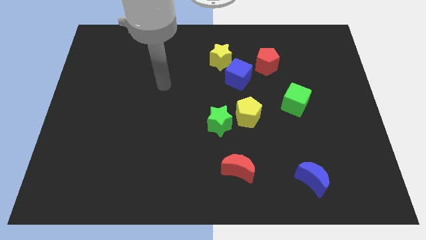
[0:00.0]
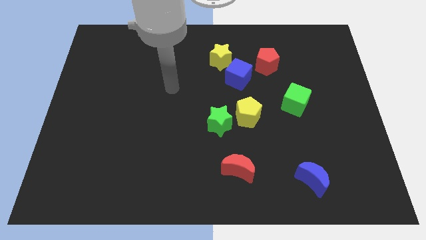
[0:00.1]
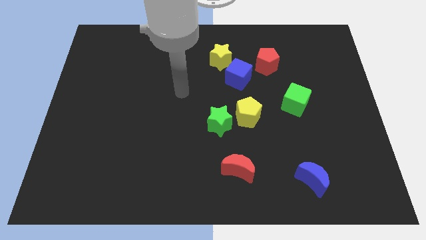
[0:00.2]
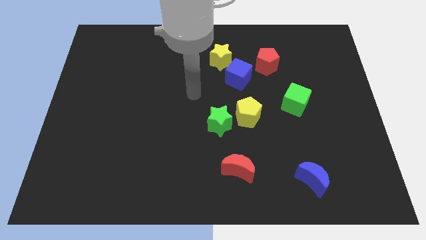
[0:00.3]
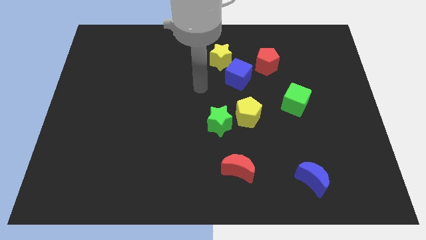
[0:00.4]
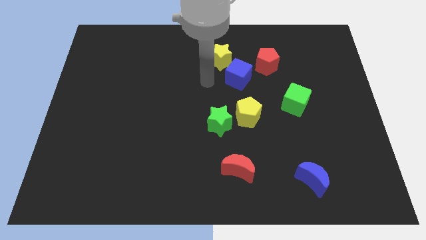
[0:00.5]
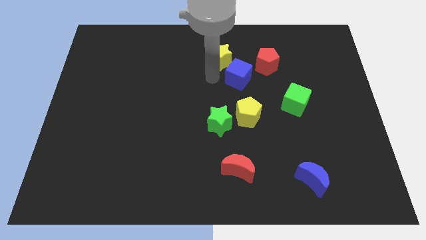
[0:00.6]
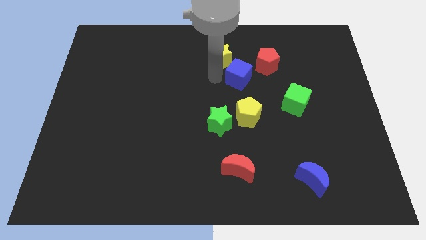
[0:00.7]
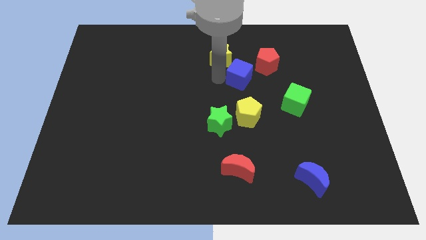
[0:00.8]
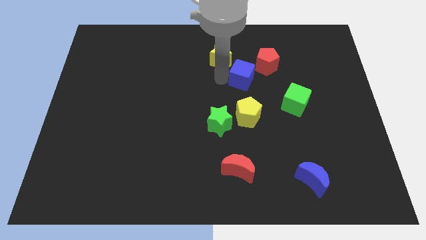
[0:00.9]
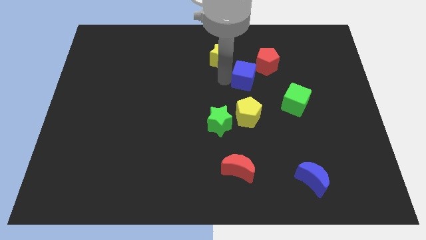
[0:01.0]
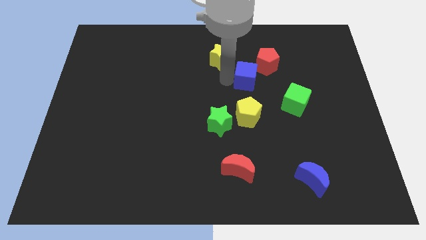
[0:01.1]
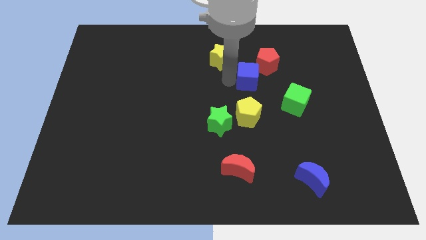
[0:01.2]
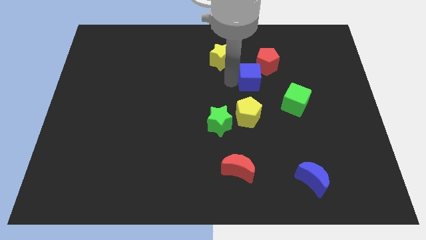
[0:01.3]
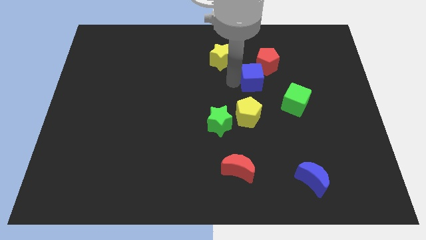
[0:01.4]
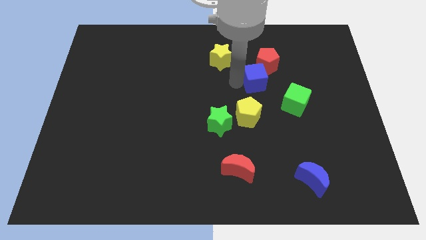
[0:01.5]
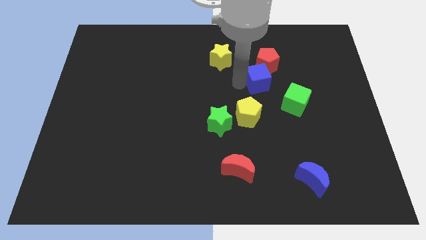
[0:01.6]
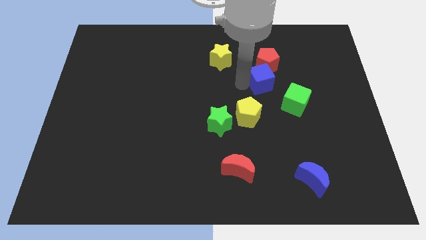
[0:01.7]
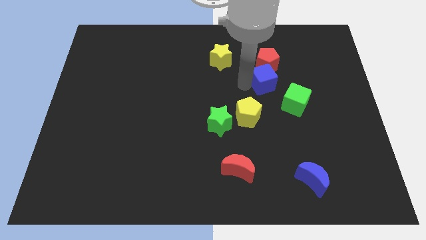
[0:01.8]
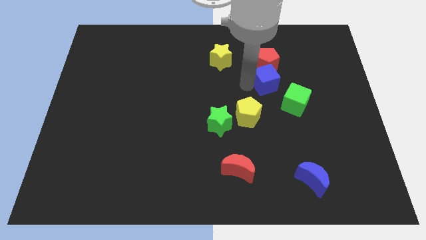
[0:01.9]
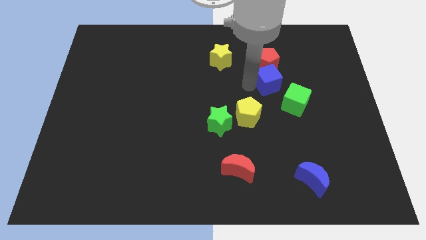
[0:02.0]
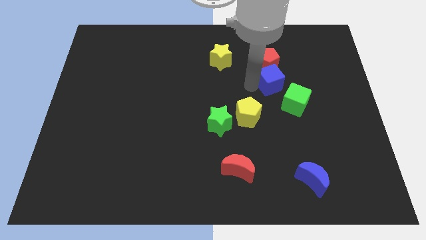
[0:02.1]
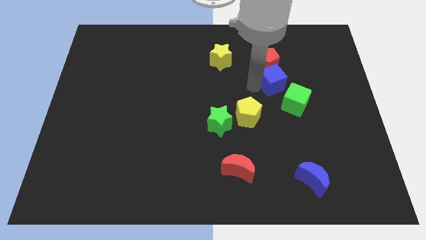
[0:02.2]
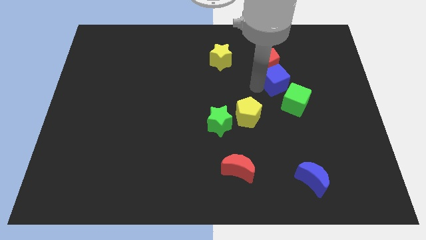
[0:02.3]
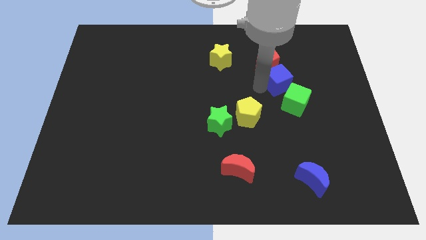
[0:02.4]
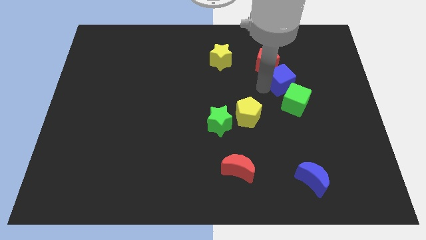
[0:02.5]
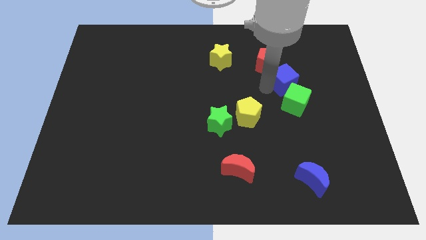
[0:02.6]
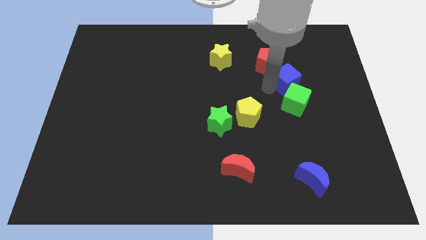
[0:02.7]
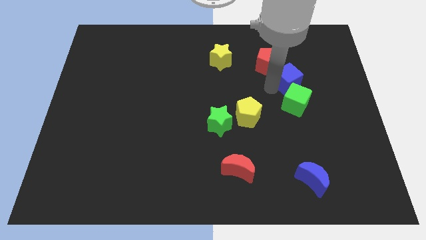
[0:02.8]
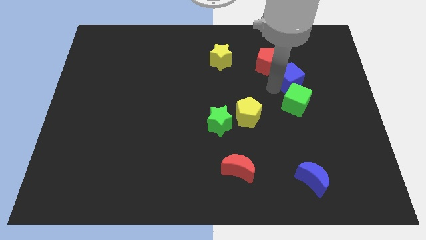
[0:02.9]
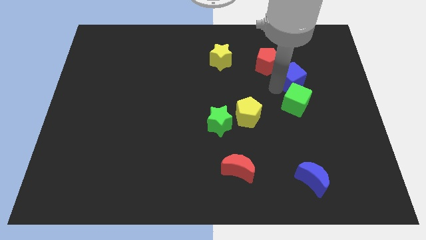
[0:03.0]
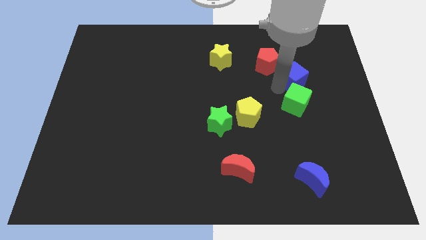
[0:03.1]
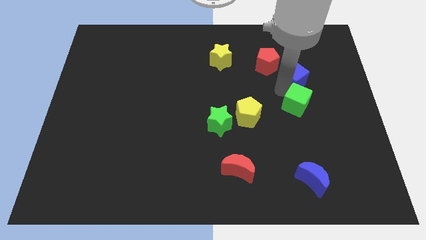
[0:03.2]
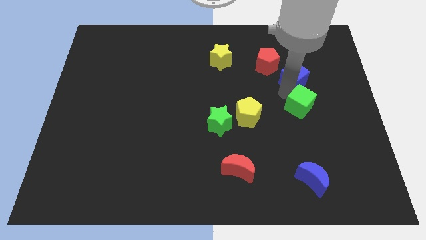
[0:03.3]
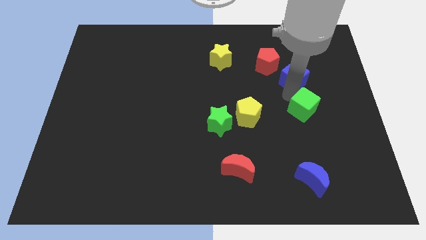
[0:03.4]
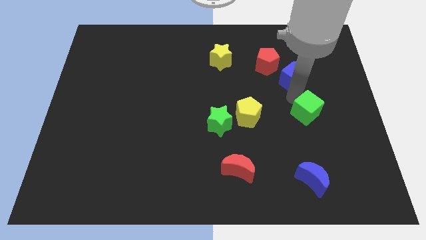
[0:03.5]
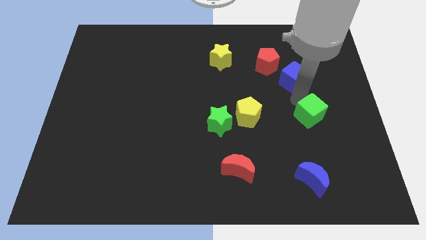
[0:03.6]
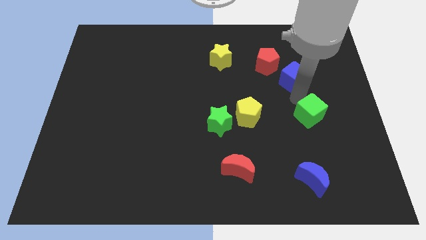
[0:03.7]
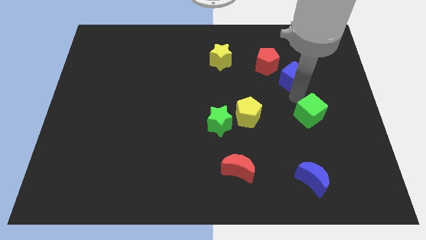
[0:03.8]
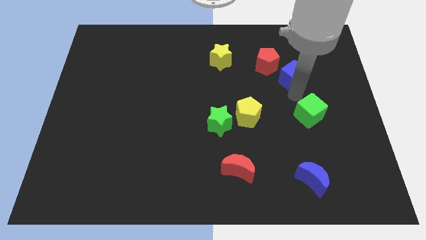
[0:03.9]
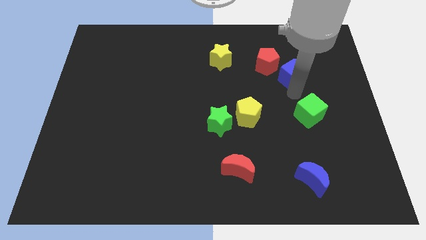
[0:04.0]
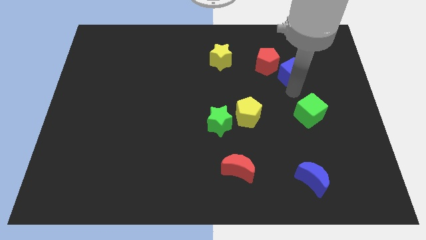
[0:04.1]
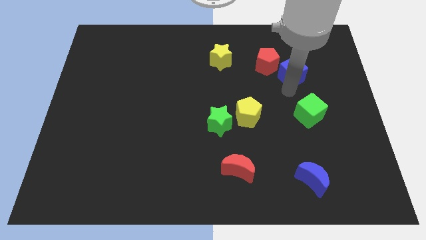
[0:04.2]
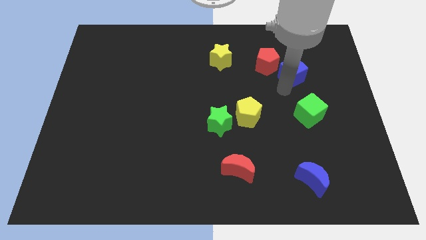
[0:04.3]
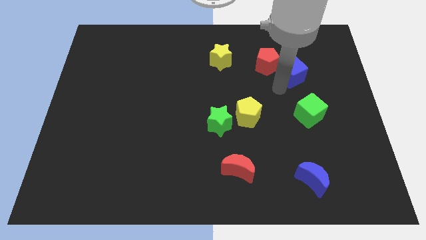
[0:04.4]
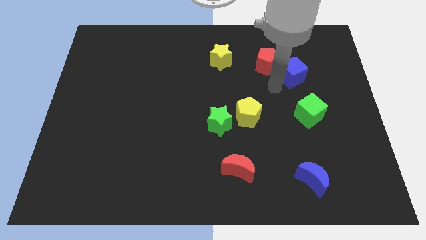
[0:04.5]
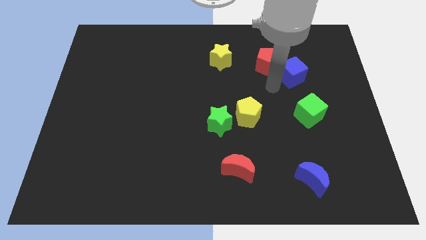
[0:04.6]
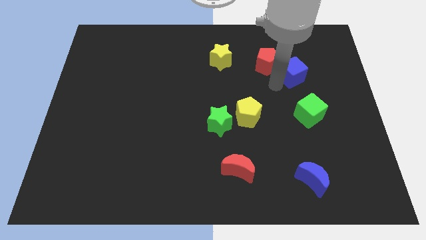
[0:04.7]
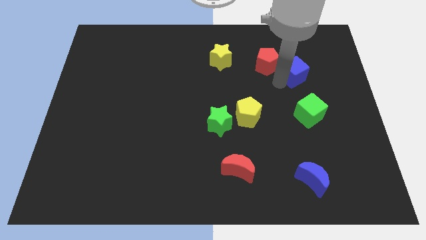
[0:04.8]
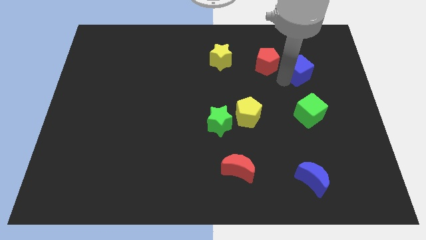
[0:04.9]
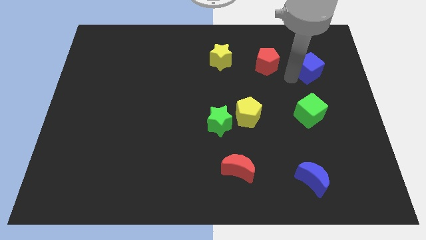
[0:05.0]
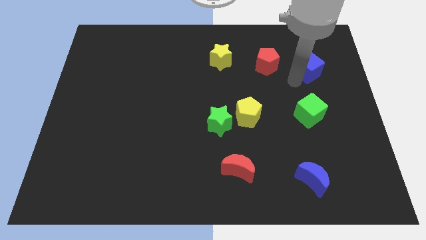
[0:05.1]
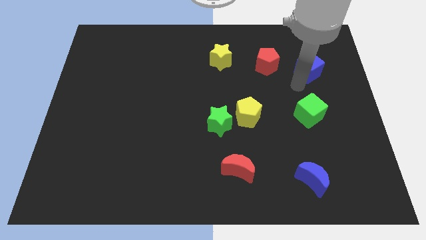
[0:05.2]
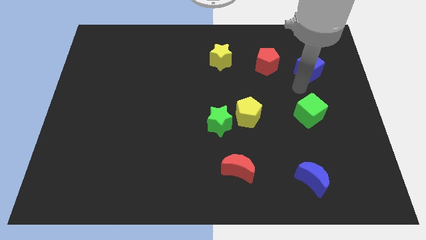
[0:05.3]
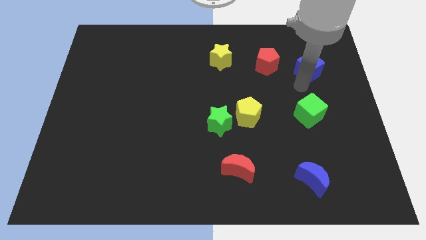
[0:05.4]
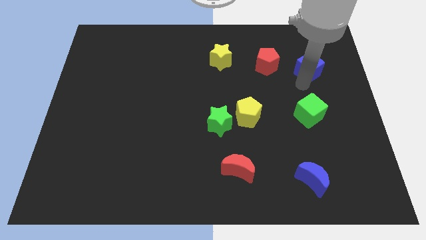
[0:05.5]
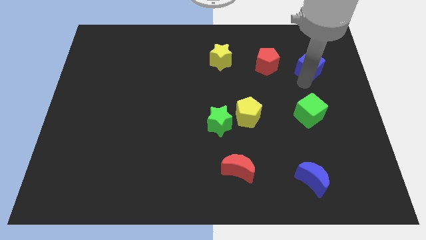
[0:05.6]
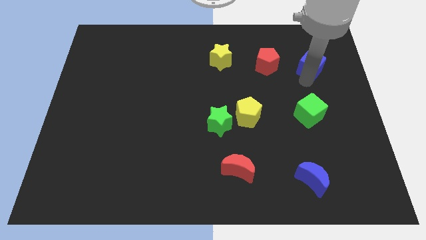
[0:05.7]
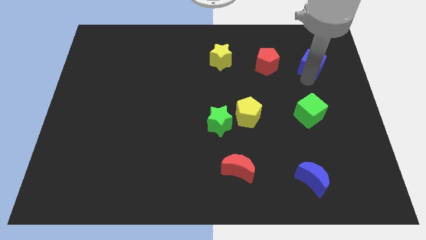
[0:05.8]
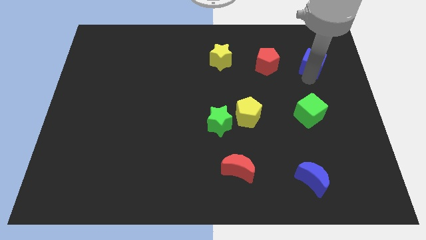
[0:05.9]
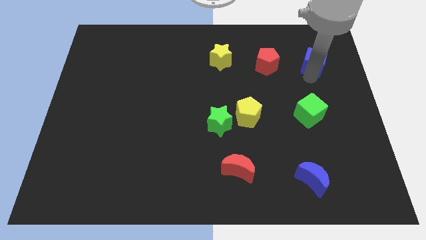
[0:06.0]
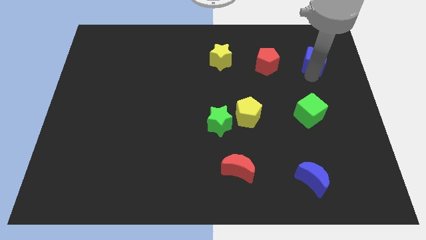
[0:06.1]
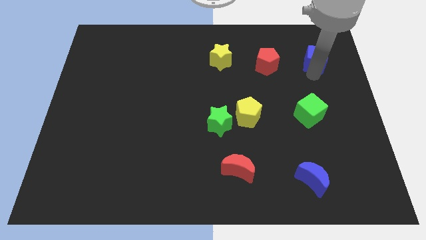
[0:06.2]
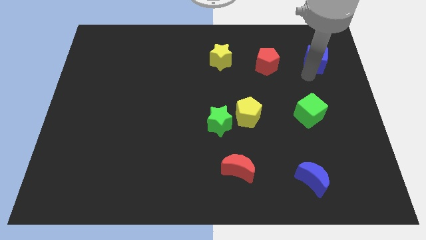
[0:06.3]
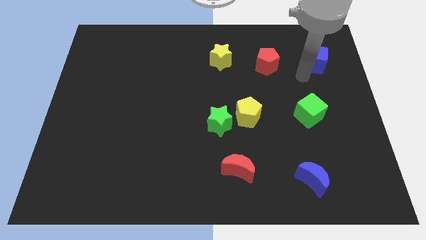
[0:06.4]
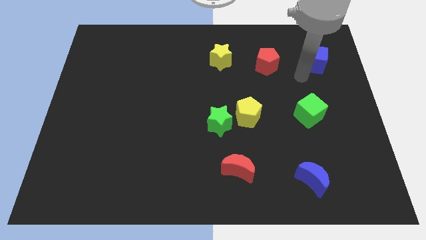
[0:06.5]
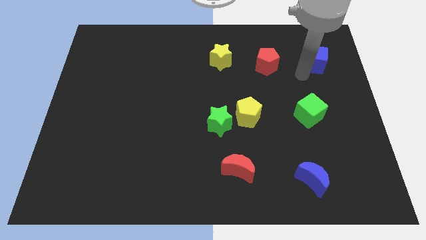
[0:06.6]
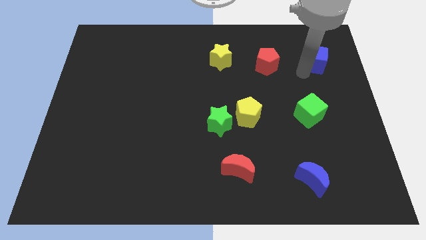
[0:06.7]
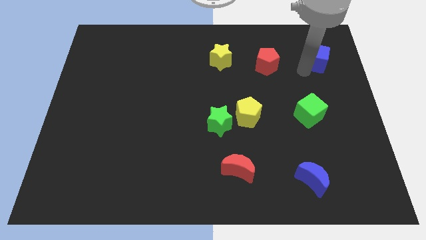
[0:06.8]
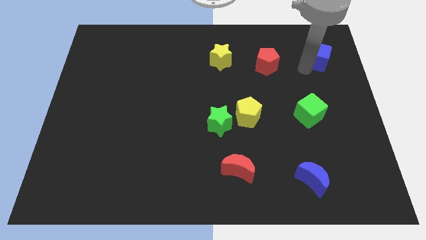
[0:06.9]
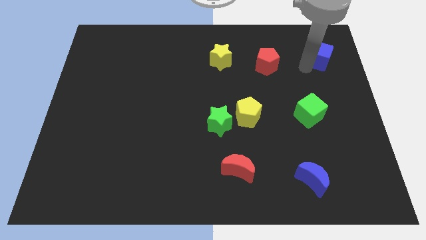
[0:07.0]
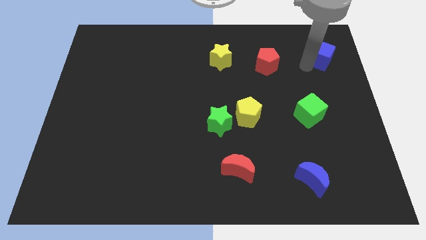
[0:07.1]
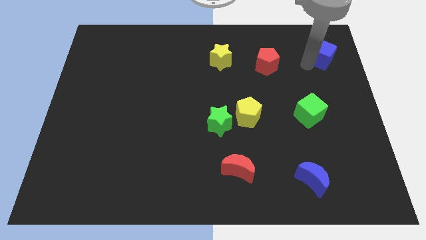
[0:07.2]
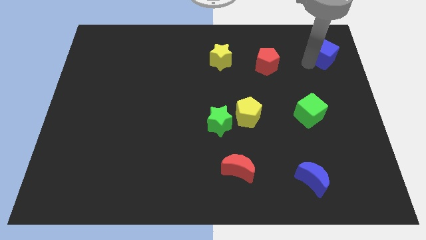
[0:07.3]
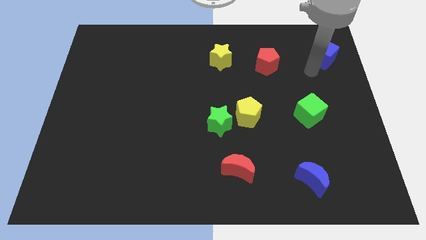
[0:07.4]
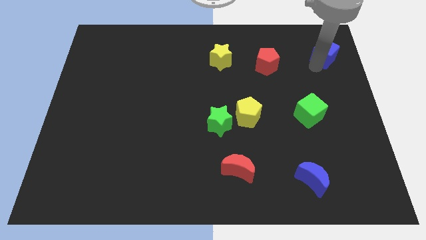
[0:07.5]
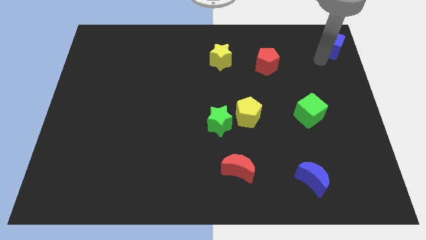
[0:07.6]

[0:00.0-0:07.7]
push the blue cube to the top right of the board
